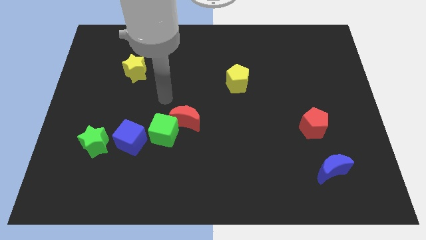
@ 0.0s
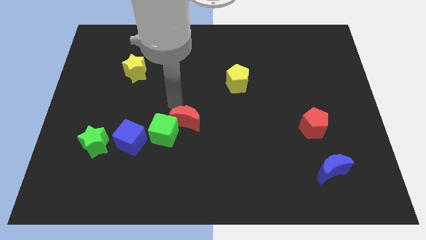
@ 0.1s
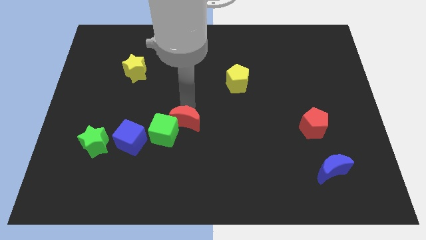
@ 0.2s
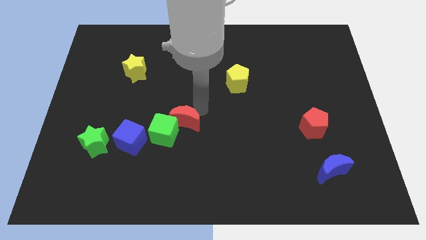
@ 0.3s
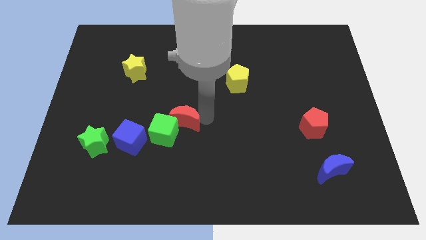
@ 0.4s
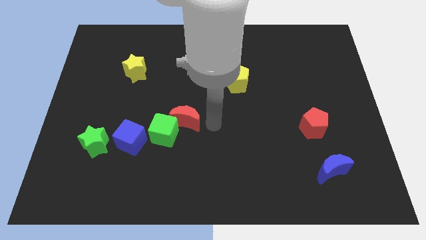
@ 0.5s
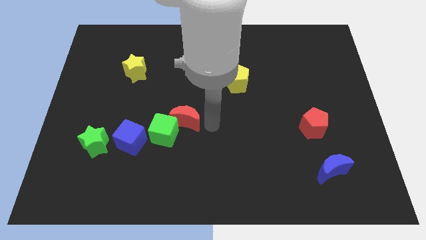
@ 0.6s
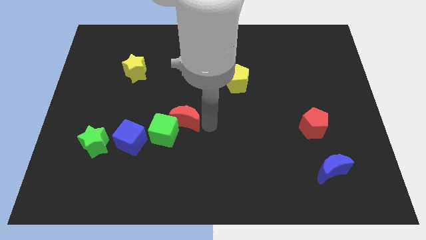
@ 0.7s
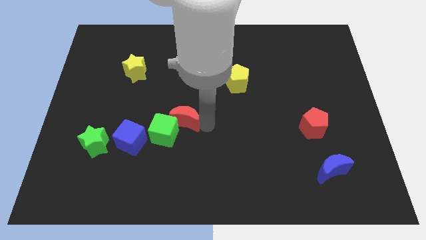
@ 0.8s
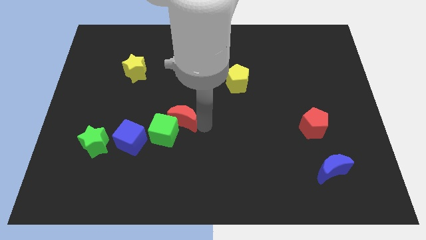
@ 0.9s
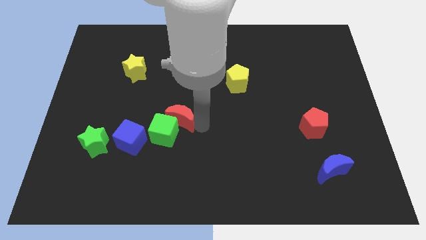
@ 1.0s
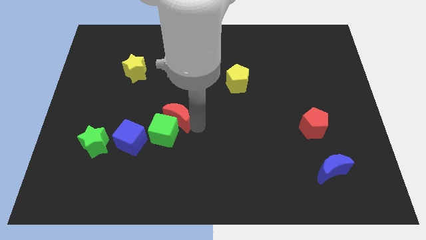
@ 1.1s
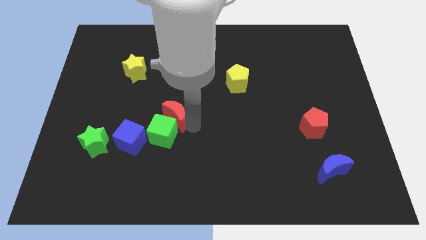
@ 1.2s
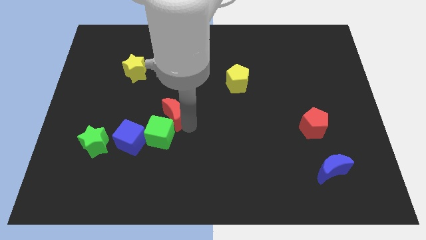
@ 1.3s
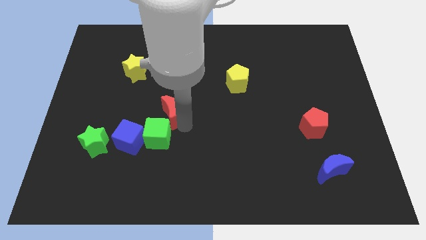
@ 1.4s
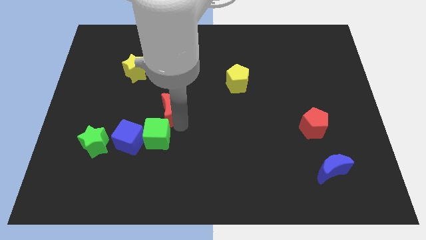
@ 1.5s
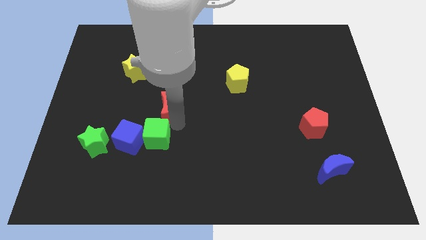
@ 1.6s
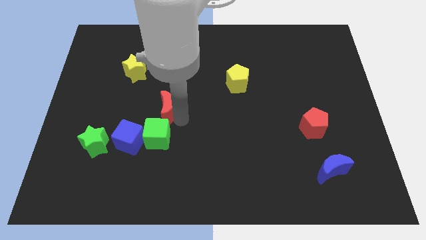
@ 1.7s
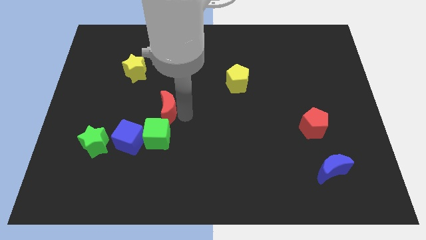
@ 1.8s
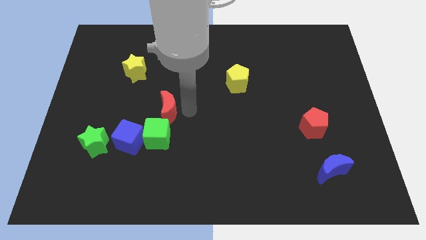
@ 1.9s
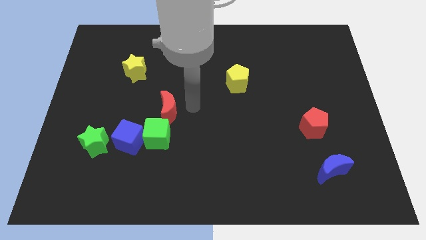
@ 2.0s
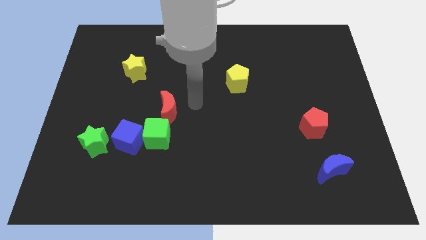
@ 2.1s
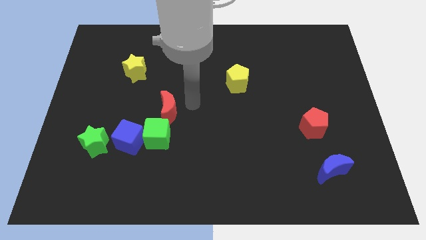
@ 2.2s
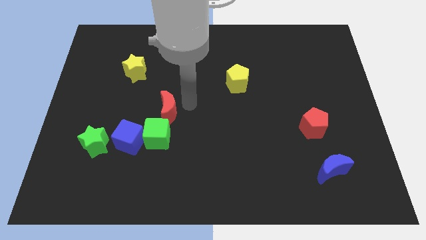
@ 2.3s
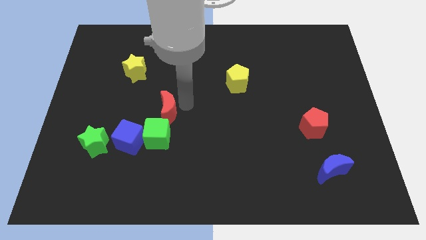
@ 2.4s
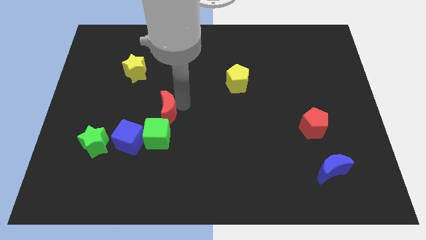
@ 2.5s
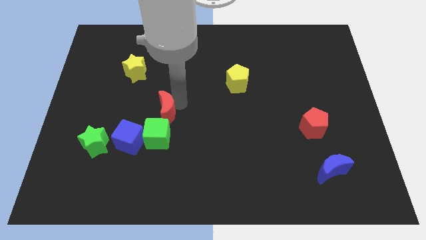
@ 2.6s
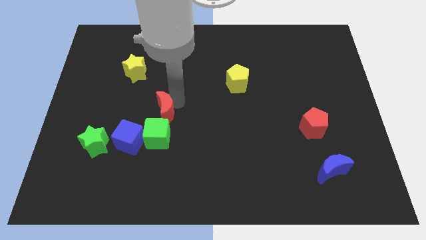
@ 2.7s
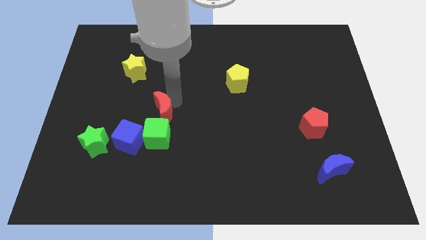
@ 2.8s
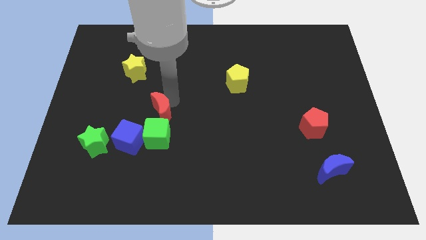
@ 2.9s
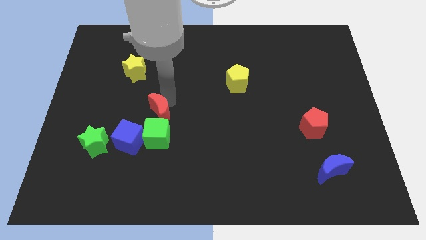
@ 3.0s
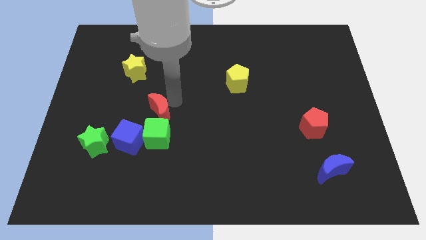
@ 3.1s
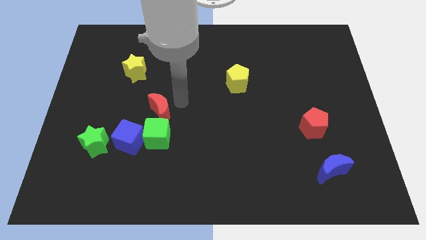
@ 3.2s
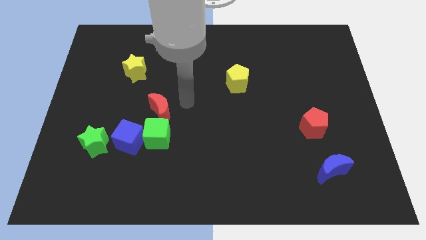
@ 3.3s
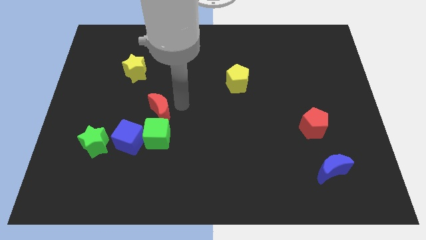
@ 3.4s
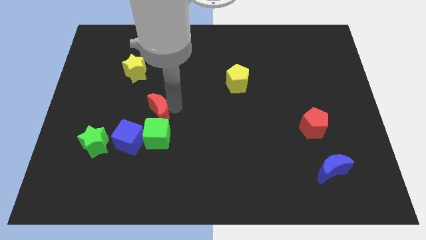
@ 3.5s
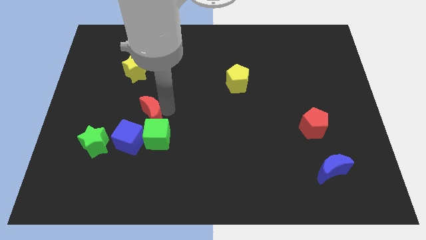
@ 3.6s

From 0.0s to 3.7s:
slightly push the red moon to the left

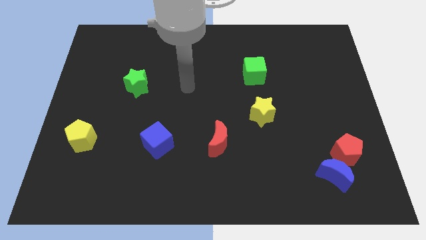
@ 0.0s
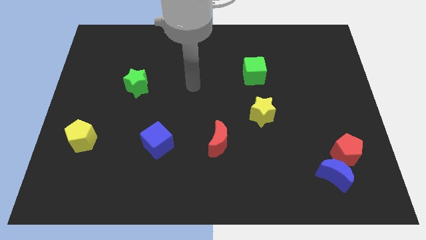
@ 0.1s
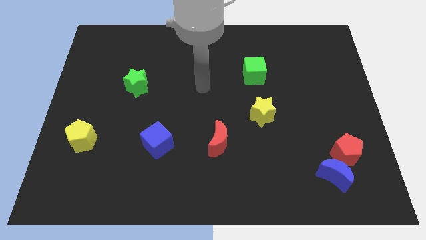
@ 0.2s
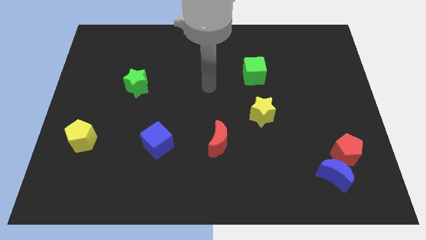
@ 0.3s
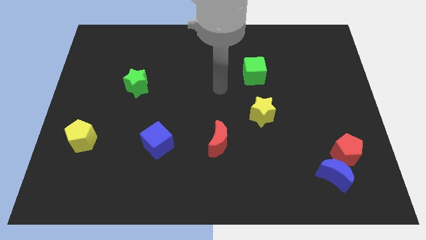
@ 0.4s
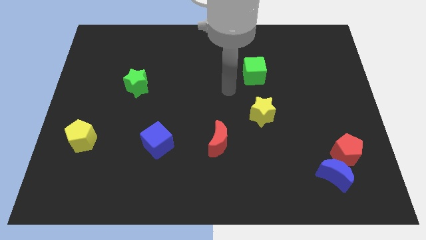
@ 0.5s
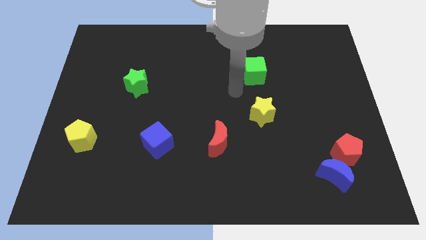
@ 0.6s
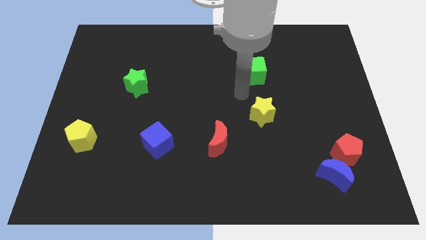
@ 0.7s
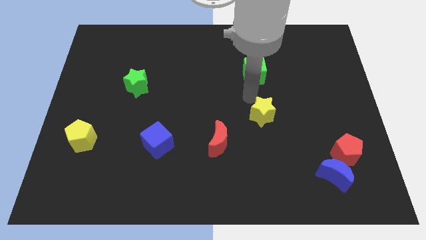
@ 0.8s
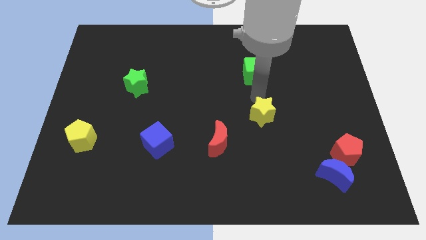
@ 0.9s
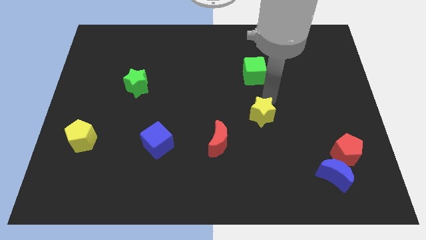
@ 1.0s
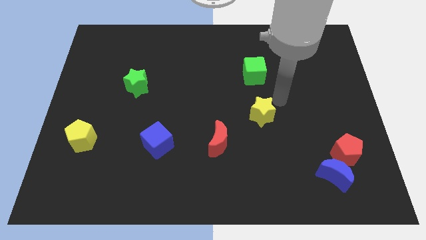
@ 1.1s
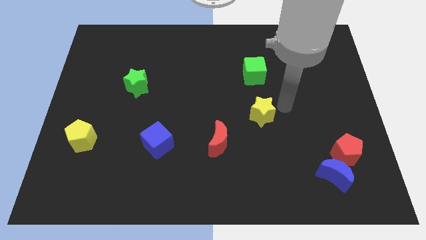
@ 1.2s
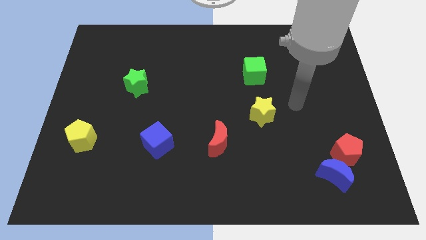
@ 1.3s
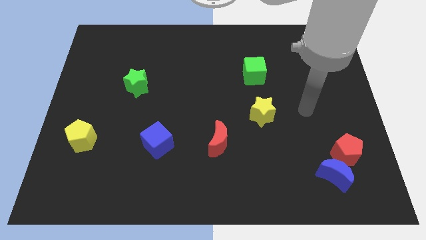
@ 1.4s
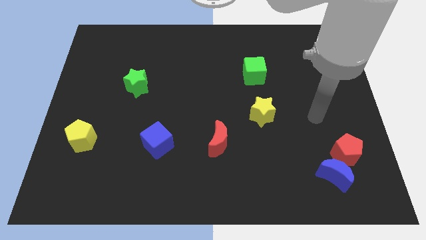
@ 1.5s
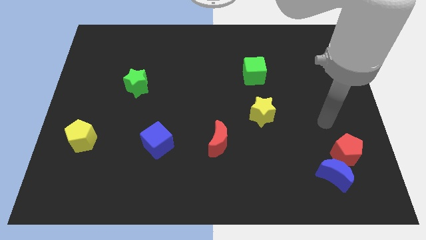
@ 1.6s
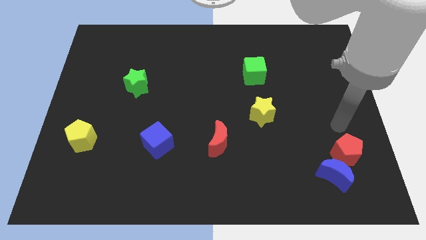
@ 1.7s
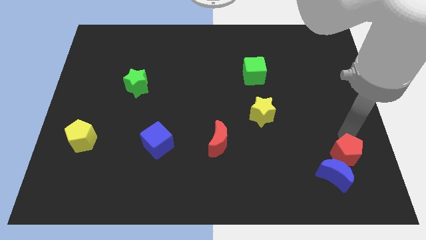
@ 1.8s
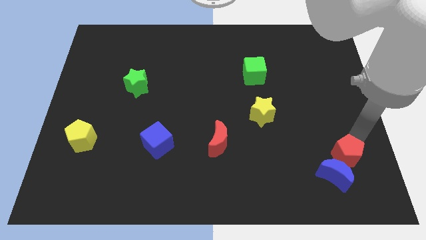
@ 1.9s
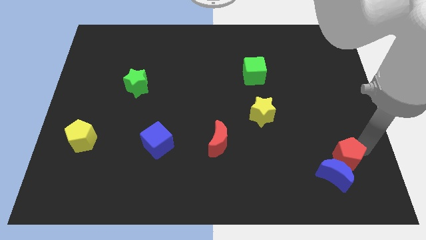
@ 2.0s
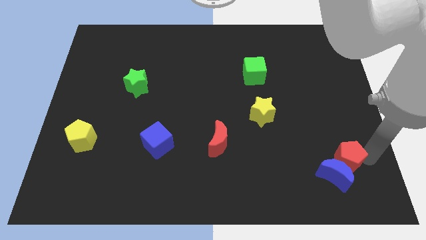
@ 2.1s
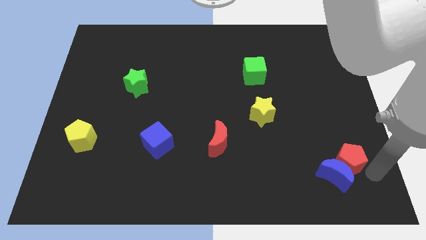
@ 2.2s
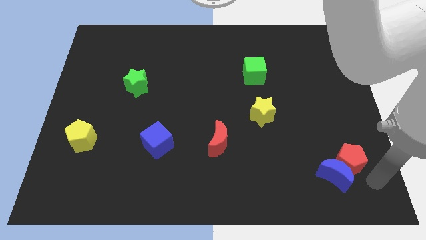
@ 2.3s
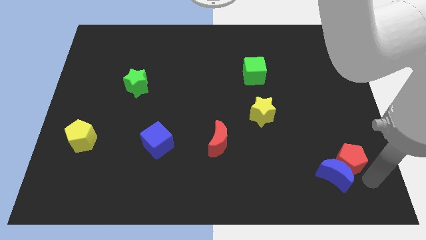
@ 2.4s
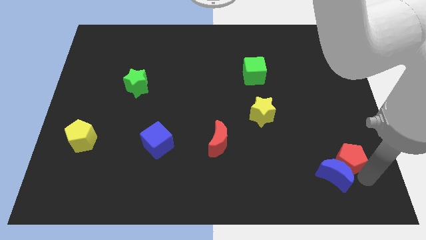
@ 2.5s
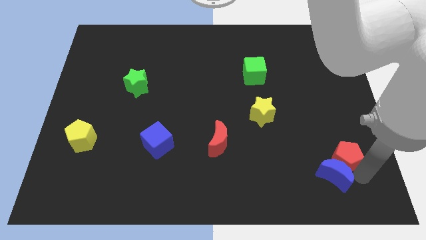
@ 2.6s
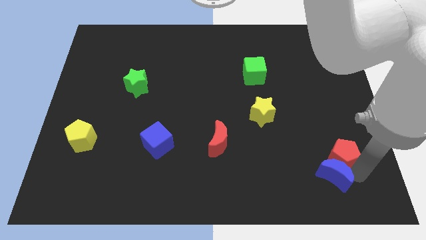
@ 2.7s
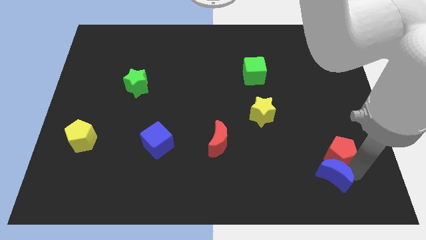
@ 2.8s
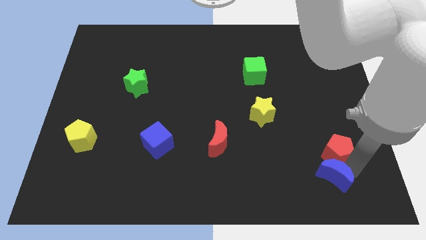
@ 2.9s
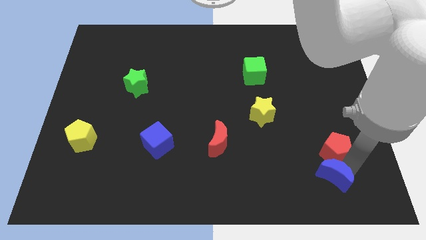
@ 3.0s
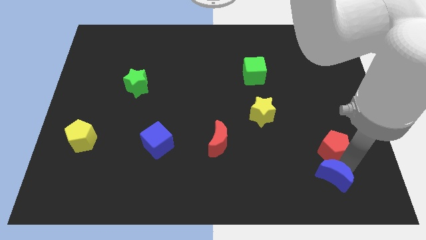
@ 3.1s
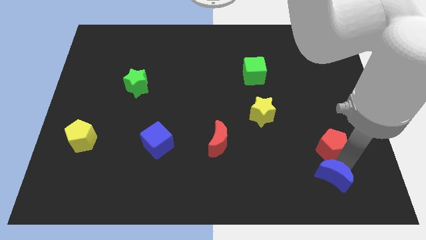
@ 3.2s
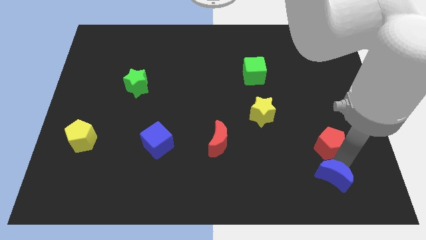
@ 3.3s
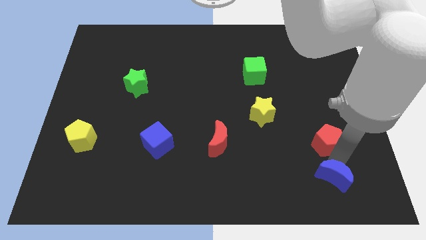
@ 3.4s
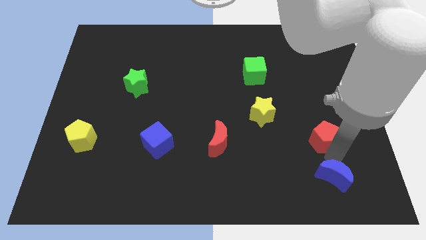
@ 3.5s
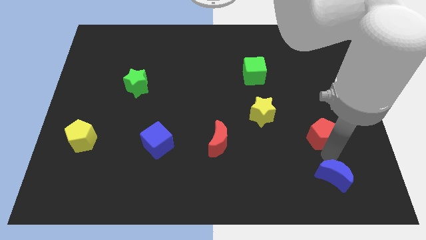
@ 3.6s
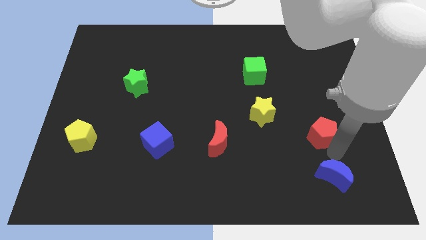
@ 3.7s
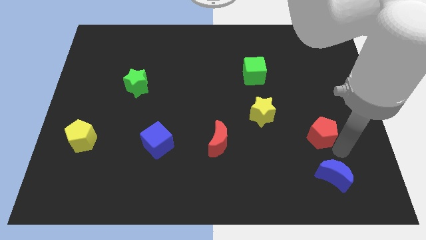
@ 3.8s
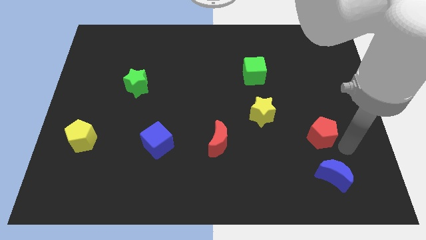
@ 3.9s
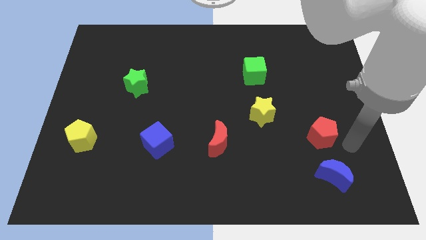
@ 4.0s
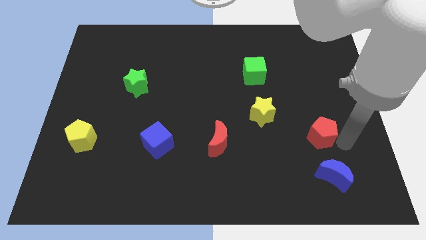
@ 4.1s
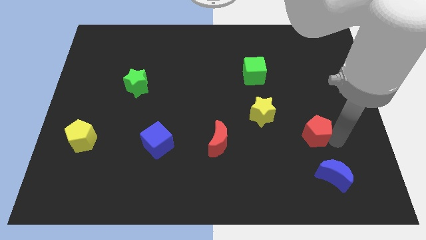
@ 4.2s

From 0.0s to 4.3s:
push the red pentagon a little bit up and to the left

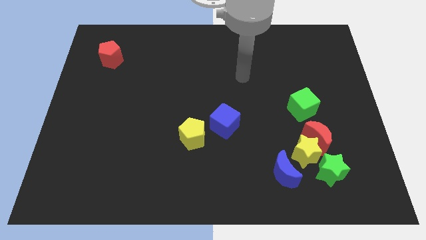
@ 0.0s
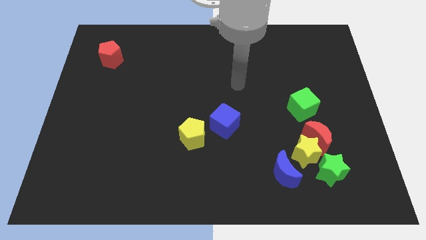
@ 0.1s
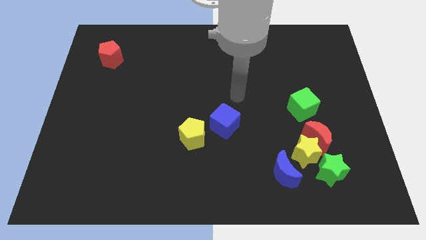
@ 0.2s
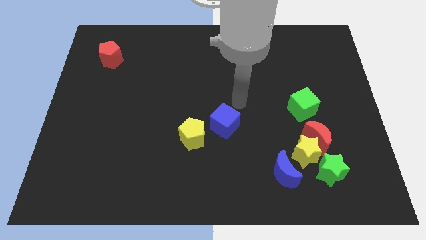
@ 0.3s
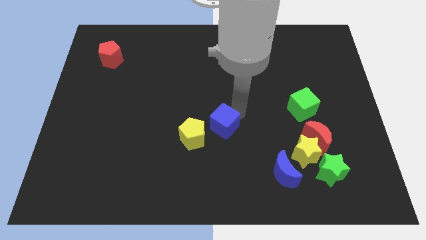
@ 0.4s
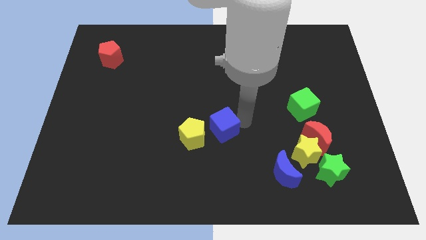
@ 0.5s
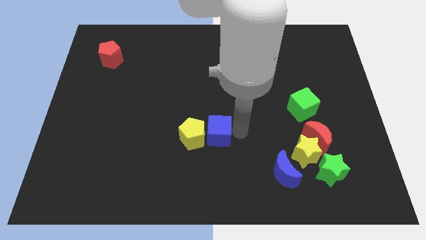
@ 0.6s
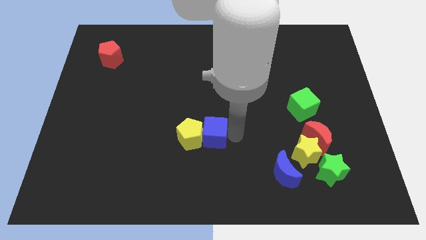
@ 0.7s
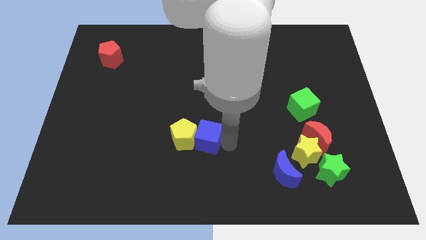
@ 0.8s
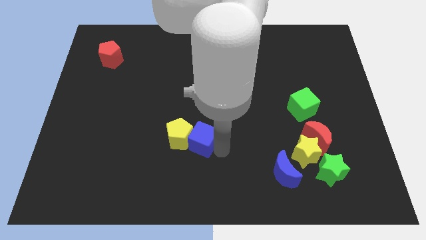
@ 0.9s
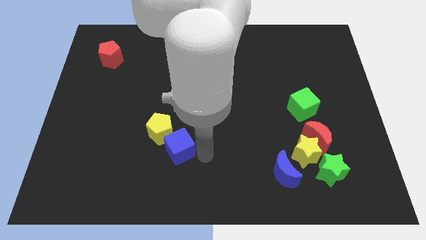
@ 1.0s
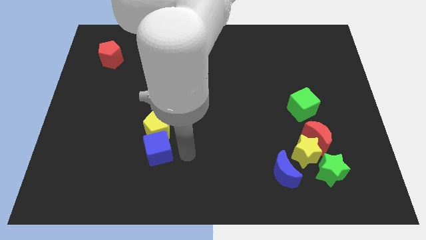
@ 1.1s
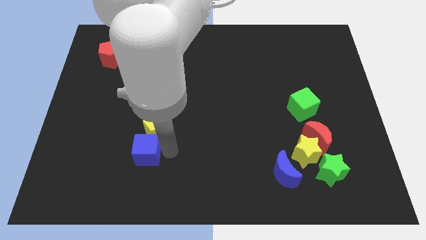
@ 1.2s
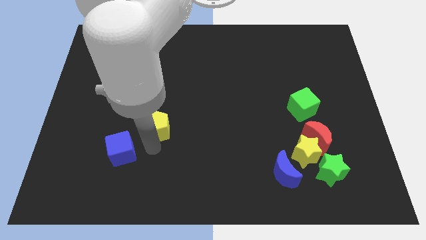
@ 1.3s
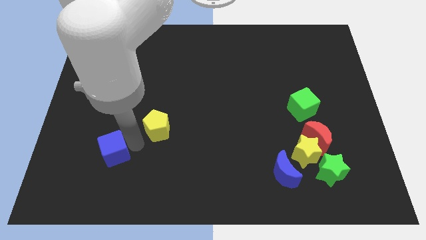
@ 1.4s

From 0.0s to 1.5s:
slightly push the yellow pentagon upwards and left diagonally
